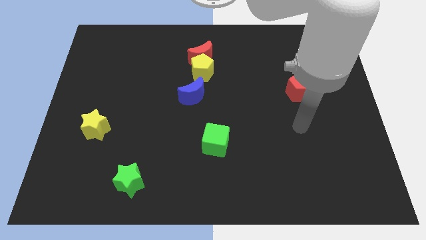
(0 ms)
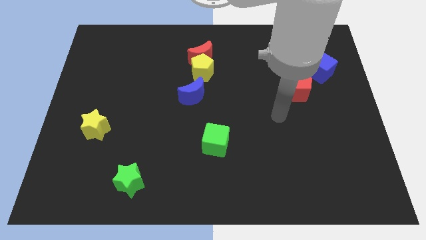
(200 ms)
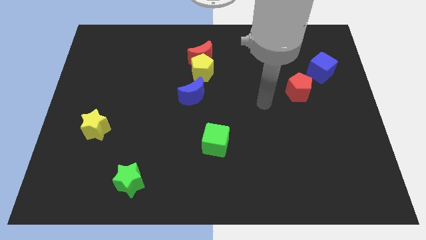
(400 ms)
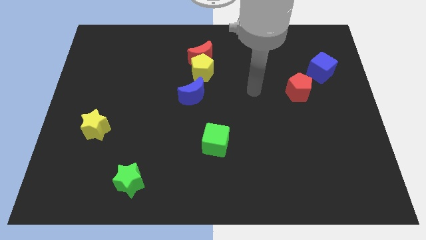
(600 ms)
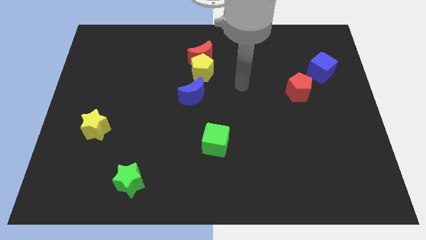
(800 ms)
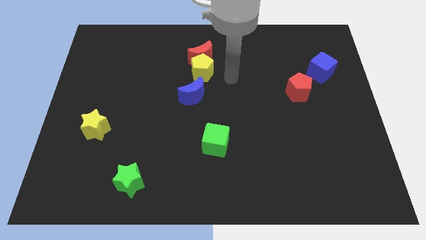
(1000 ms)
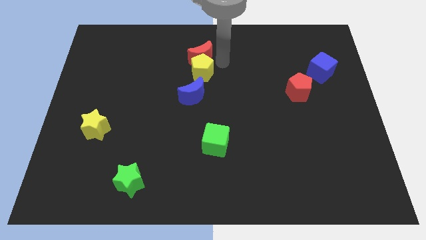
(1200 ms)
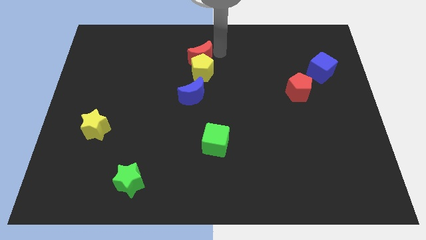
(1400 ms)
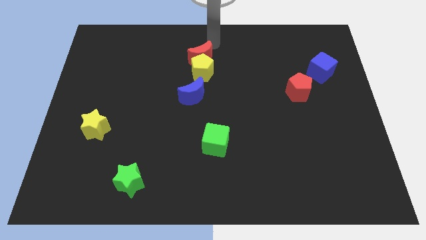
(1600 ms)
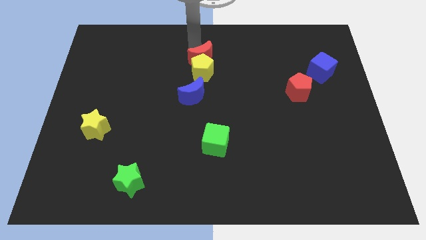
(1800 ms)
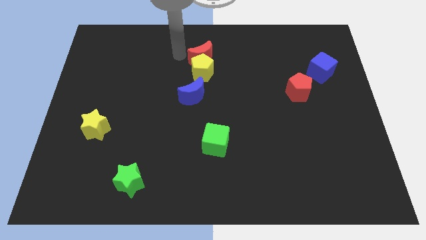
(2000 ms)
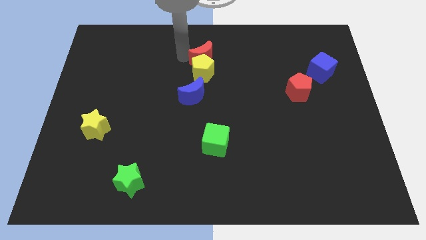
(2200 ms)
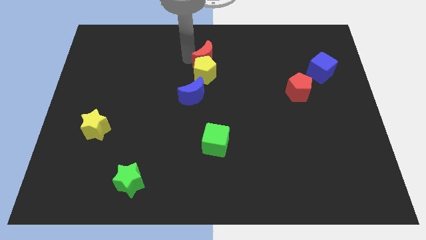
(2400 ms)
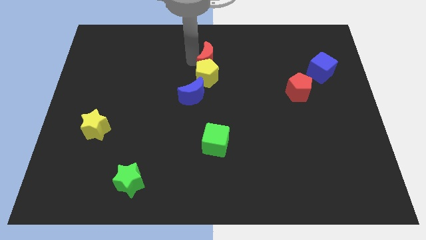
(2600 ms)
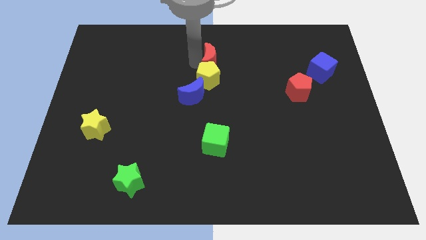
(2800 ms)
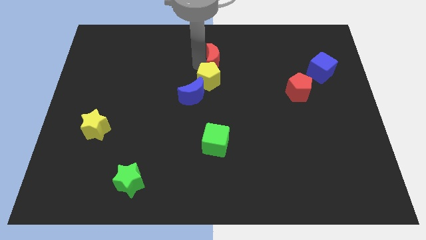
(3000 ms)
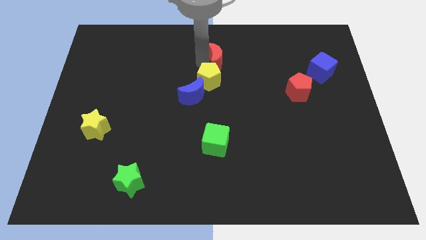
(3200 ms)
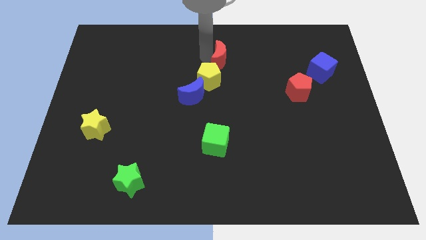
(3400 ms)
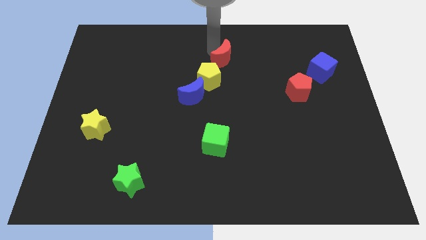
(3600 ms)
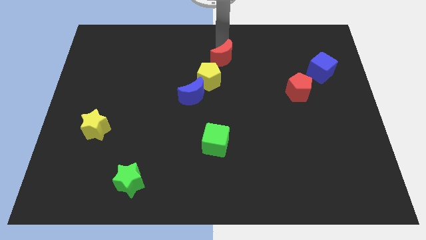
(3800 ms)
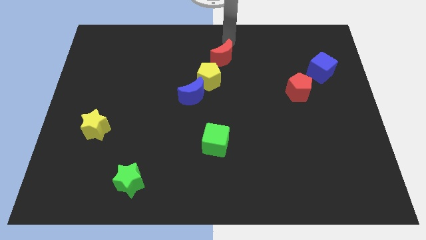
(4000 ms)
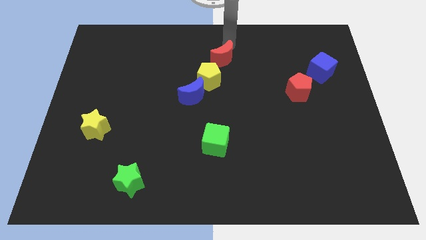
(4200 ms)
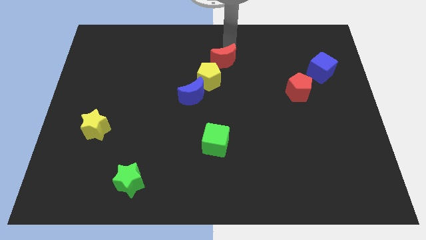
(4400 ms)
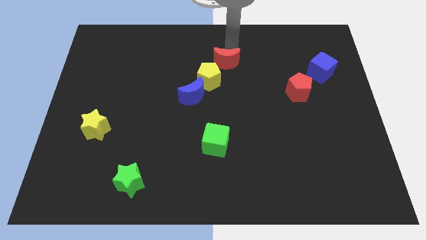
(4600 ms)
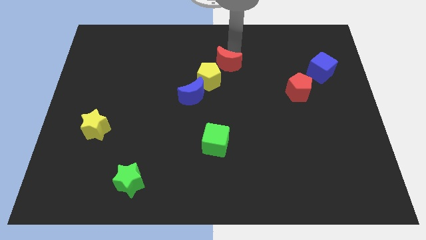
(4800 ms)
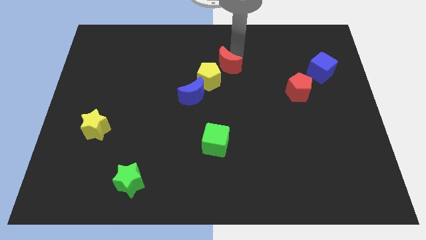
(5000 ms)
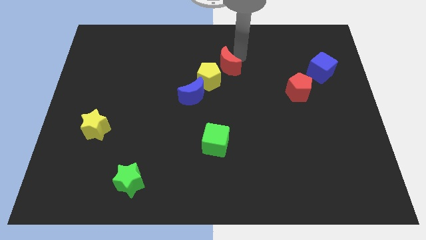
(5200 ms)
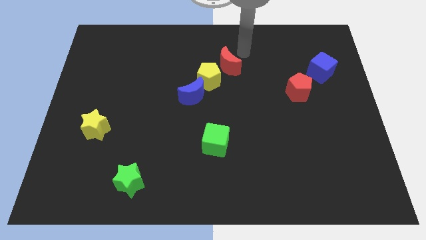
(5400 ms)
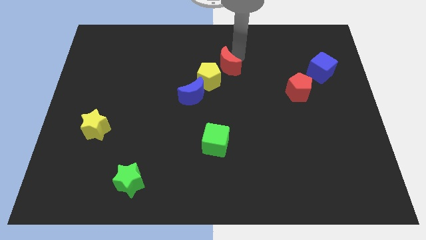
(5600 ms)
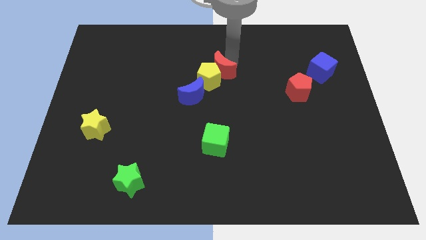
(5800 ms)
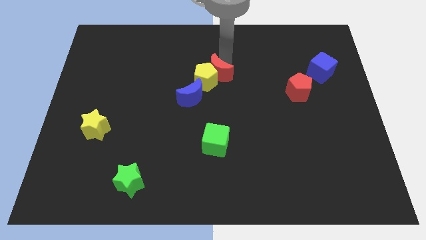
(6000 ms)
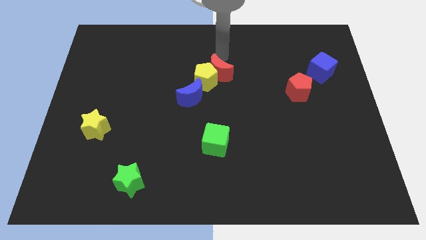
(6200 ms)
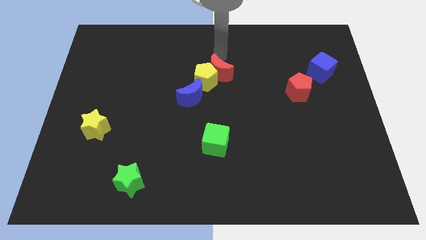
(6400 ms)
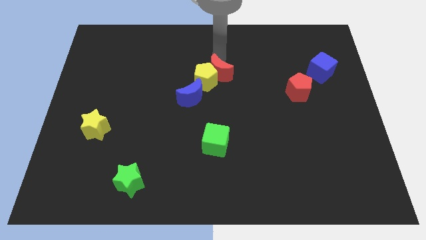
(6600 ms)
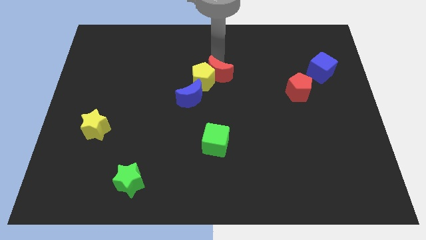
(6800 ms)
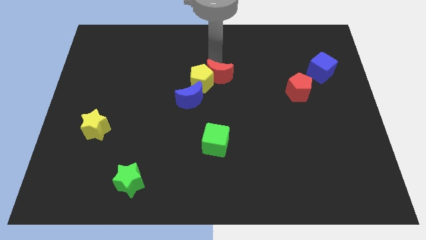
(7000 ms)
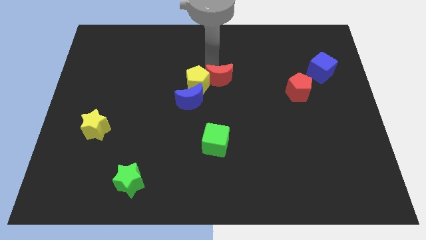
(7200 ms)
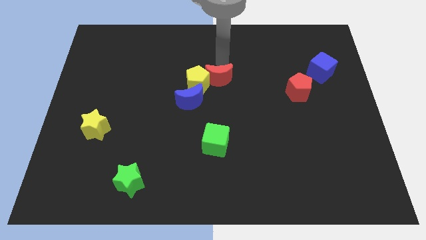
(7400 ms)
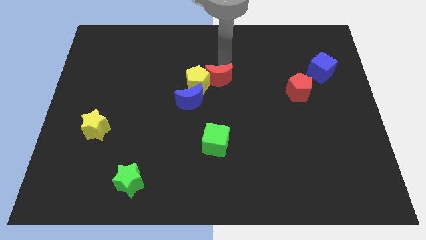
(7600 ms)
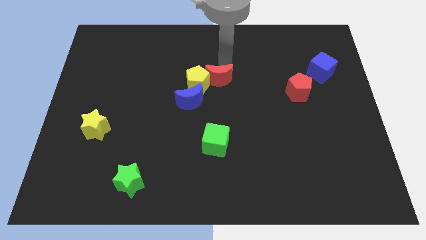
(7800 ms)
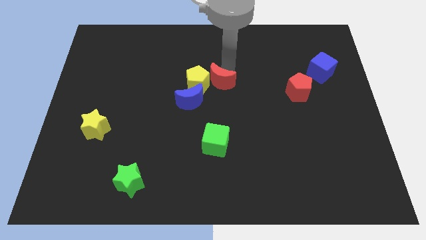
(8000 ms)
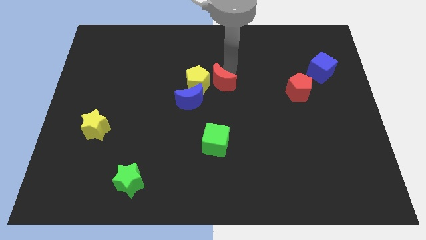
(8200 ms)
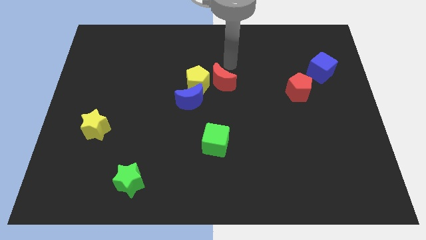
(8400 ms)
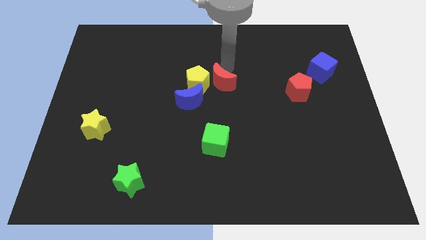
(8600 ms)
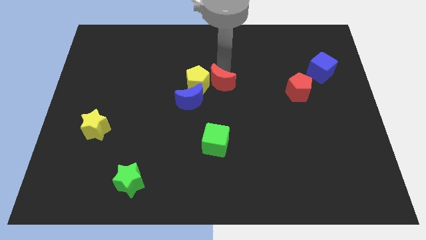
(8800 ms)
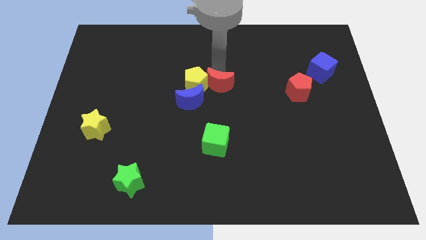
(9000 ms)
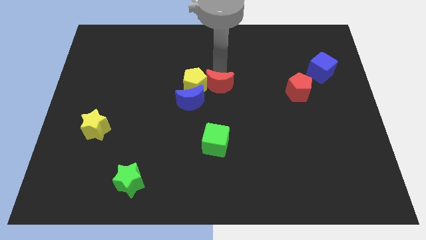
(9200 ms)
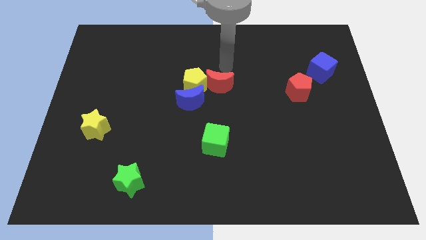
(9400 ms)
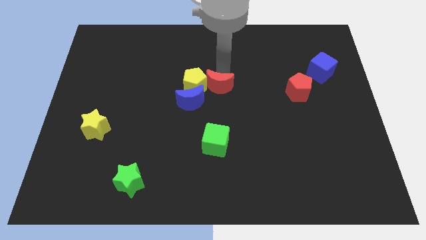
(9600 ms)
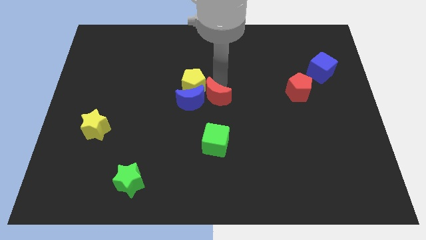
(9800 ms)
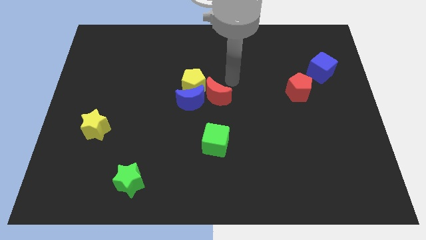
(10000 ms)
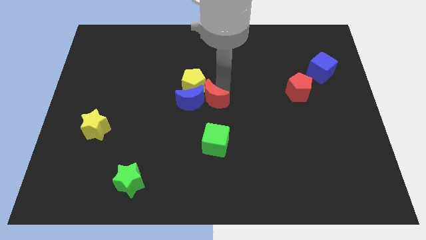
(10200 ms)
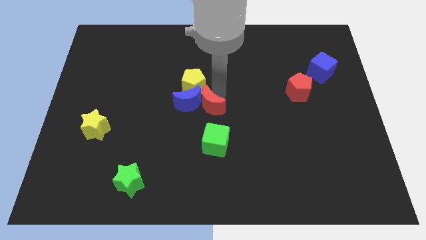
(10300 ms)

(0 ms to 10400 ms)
move the red moon to the bottom side of the yellow pentagon

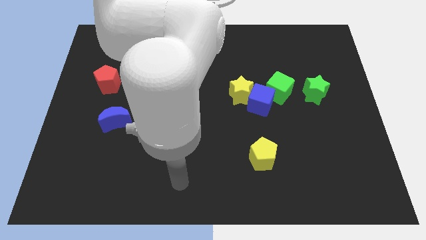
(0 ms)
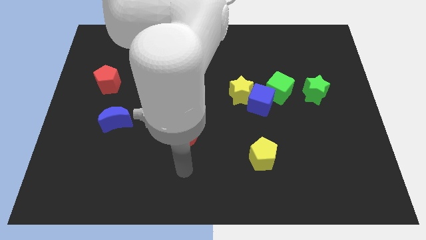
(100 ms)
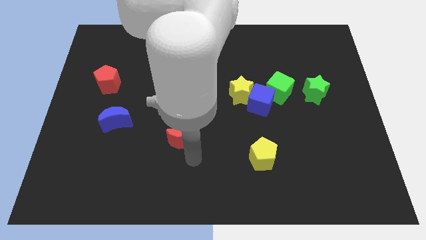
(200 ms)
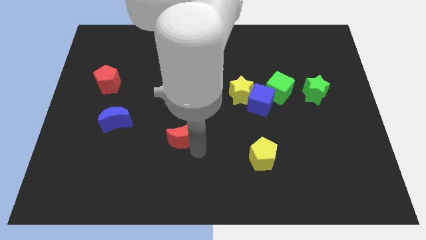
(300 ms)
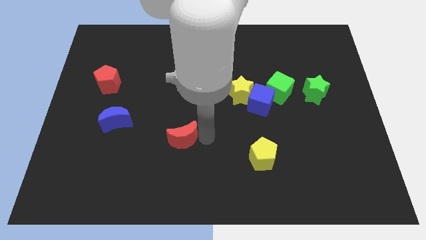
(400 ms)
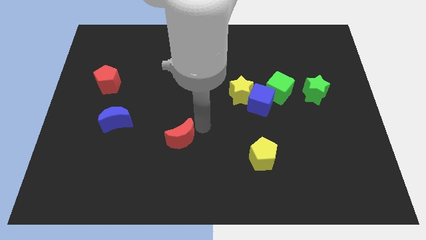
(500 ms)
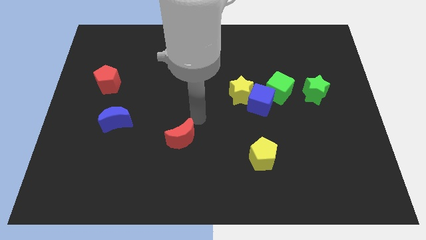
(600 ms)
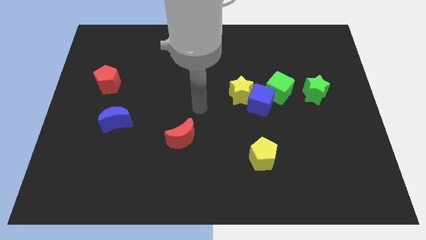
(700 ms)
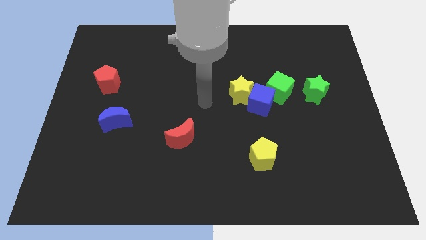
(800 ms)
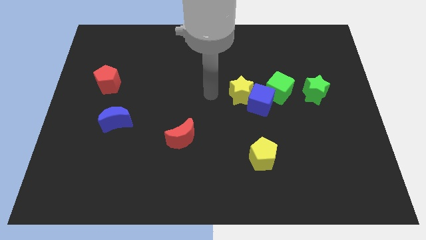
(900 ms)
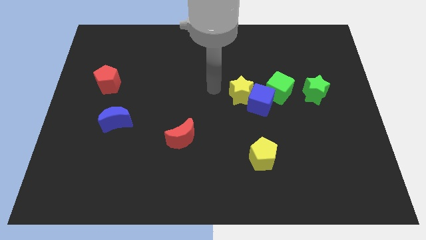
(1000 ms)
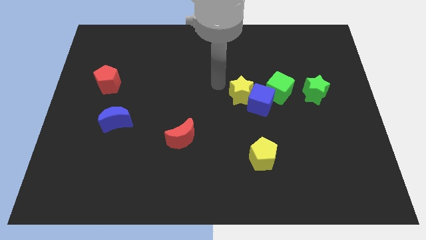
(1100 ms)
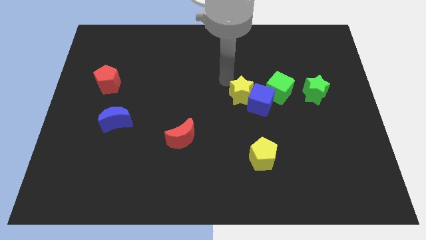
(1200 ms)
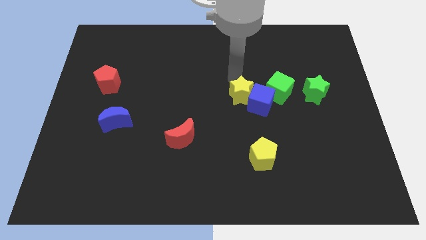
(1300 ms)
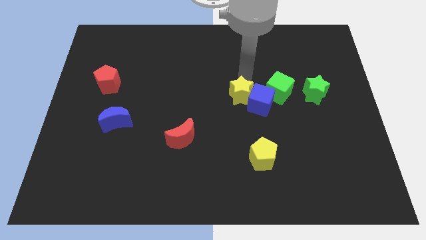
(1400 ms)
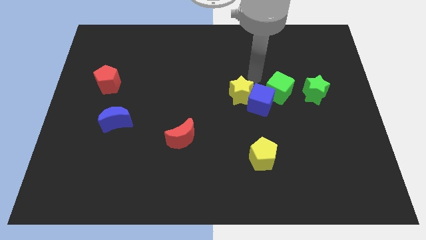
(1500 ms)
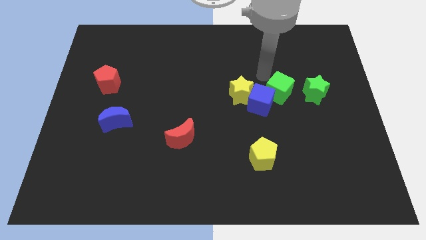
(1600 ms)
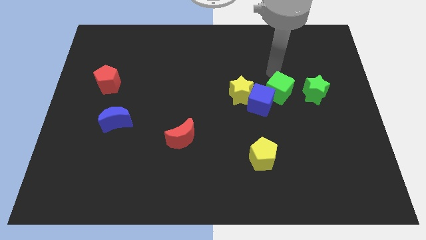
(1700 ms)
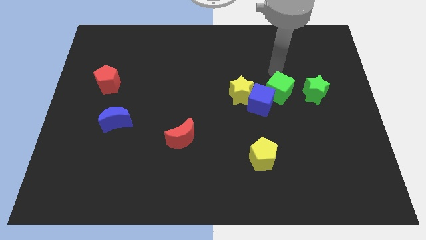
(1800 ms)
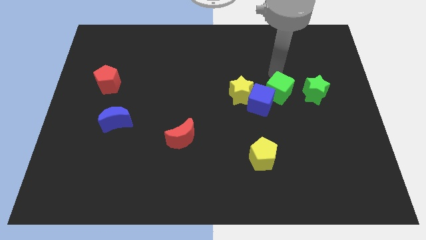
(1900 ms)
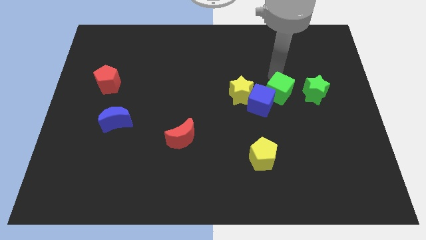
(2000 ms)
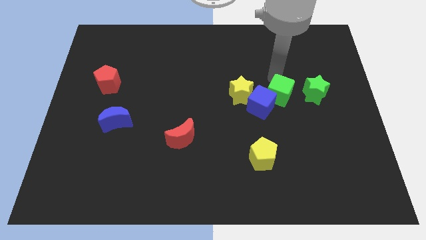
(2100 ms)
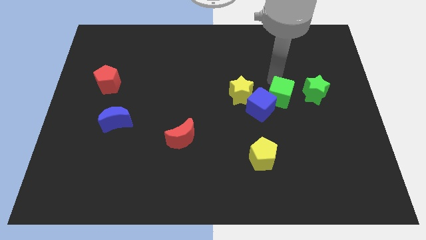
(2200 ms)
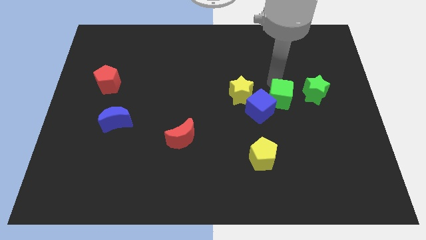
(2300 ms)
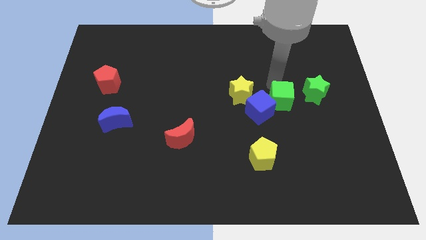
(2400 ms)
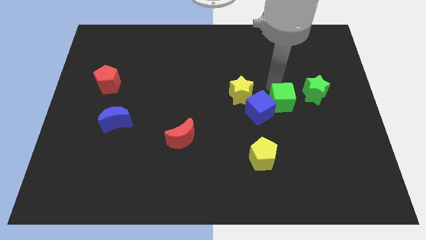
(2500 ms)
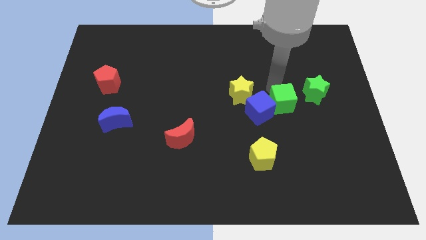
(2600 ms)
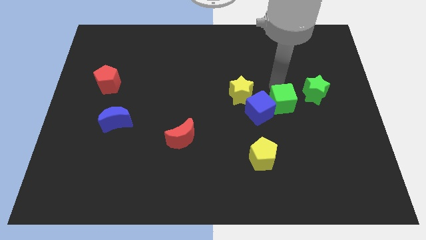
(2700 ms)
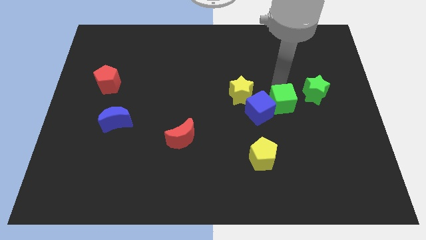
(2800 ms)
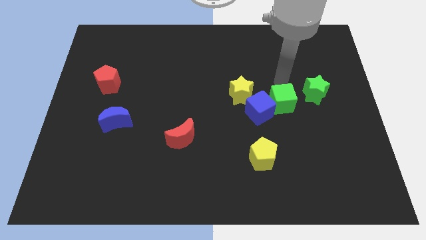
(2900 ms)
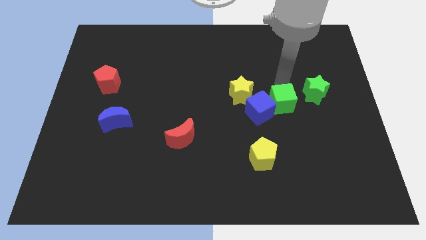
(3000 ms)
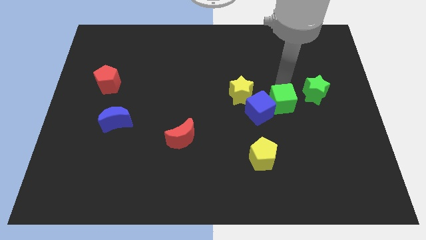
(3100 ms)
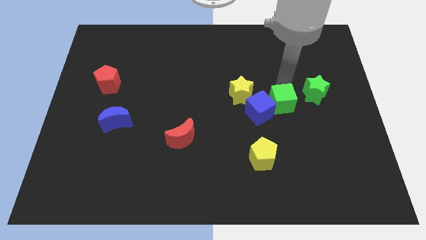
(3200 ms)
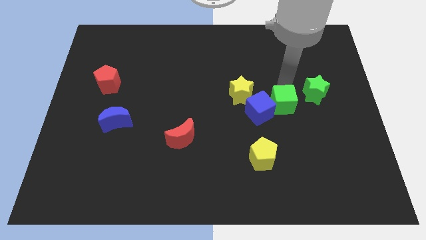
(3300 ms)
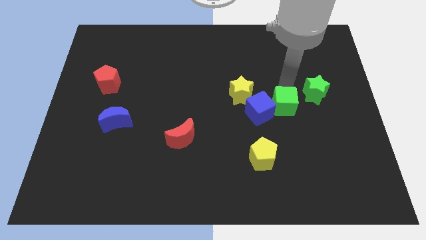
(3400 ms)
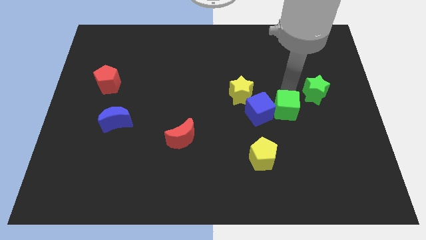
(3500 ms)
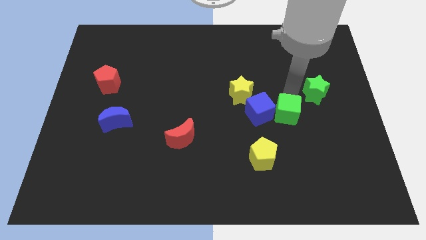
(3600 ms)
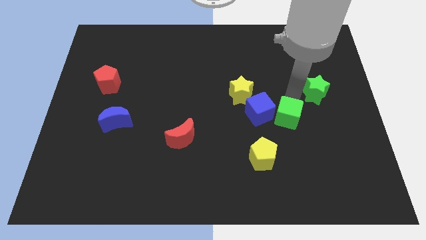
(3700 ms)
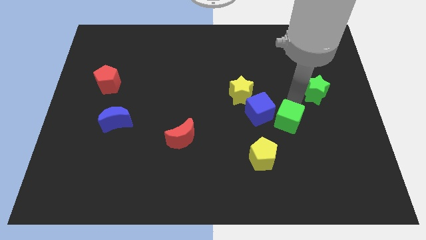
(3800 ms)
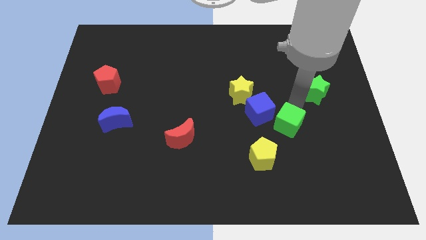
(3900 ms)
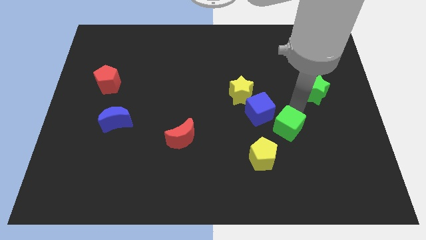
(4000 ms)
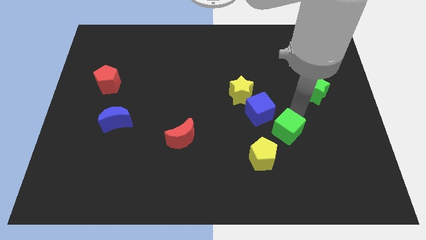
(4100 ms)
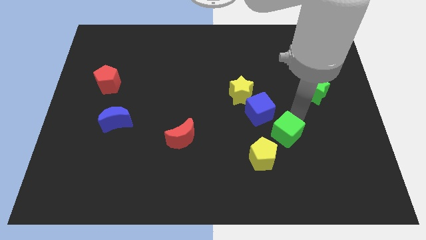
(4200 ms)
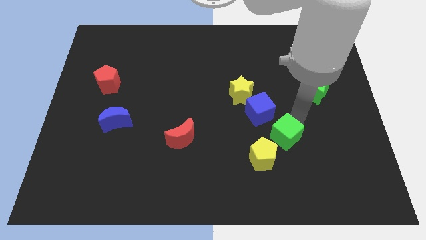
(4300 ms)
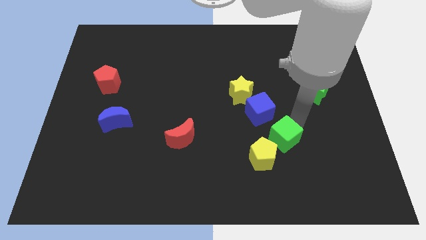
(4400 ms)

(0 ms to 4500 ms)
push the green cube to the bottom of the blue cube
